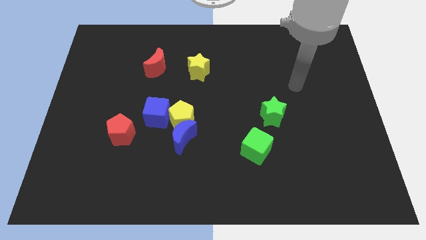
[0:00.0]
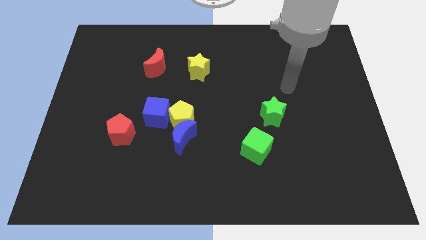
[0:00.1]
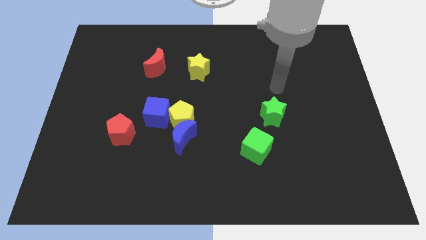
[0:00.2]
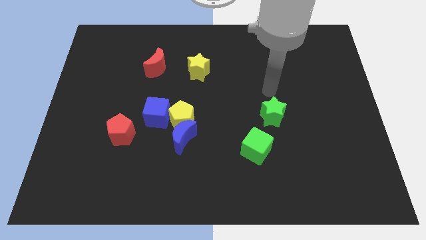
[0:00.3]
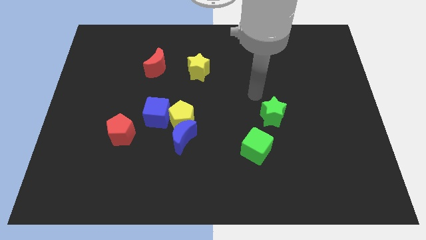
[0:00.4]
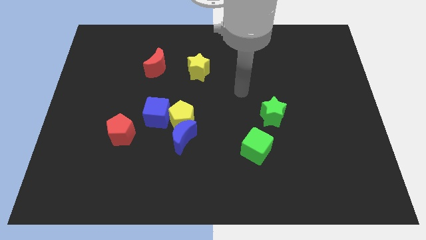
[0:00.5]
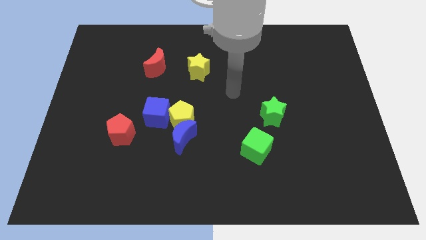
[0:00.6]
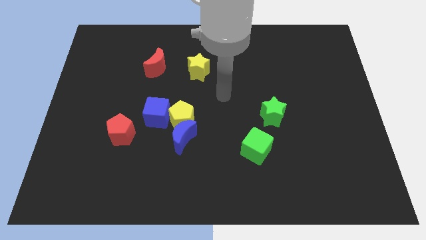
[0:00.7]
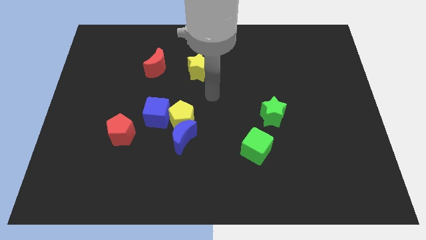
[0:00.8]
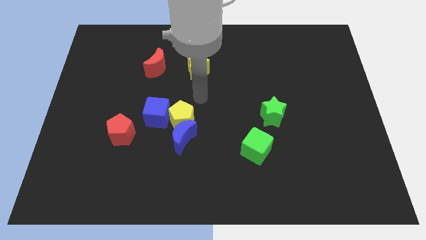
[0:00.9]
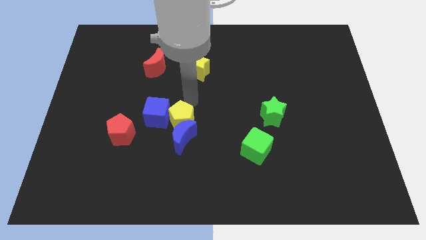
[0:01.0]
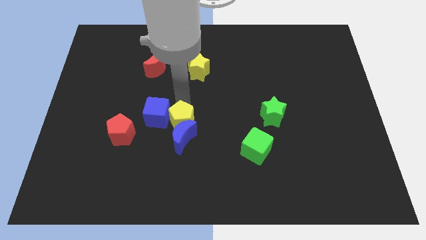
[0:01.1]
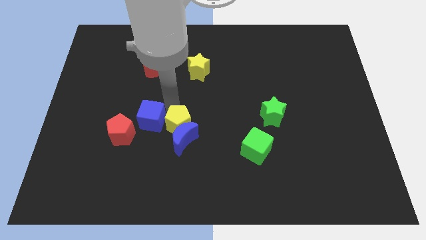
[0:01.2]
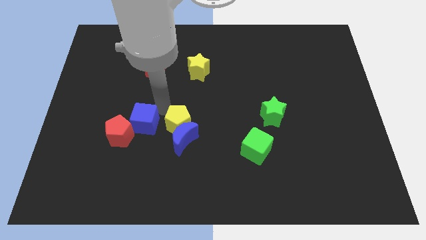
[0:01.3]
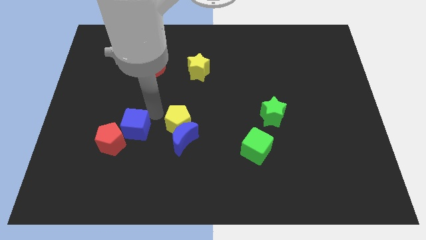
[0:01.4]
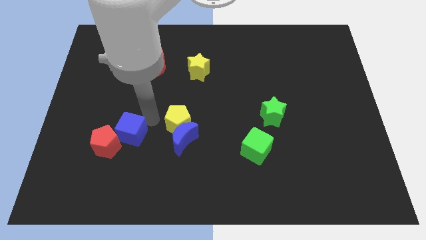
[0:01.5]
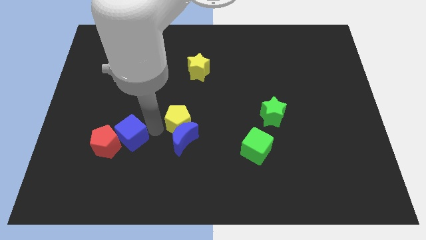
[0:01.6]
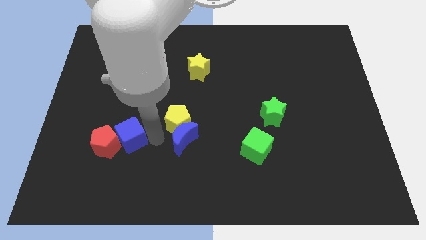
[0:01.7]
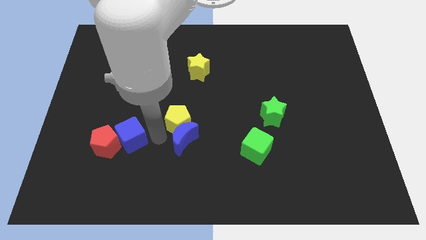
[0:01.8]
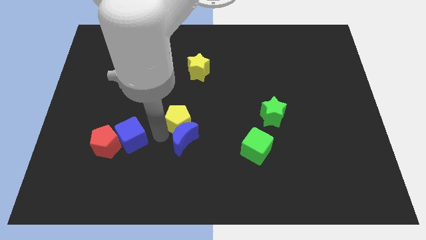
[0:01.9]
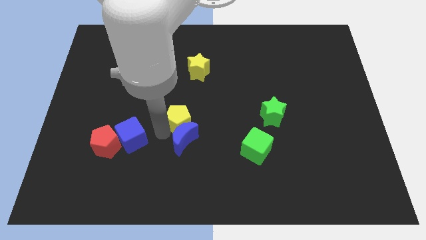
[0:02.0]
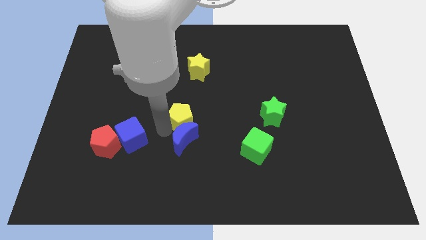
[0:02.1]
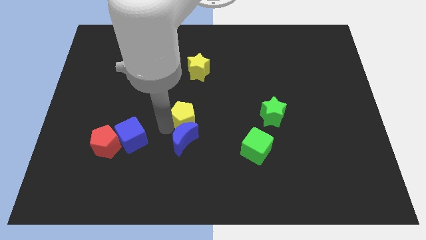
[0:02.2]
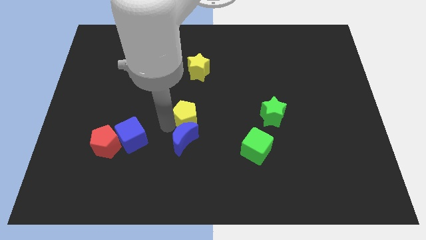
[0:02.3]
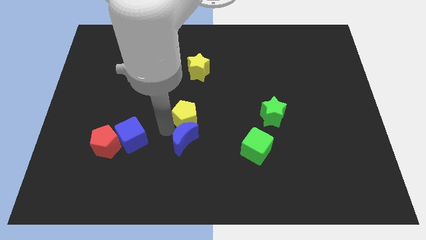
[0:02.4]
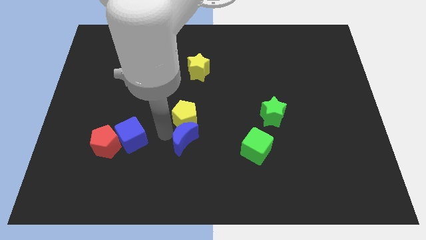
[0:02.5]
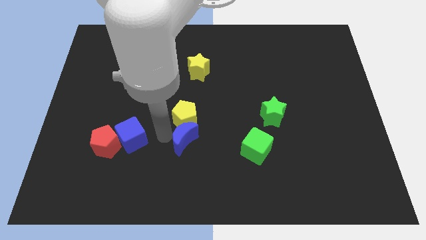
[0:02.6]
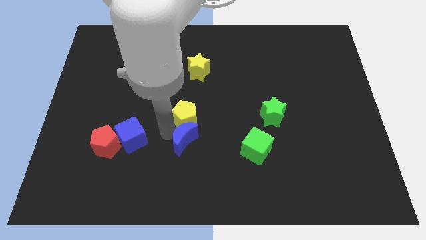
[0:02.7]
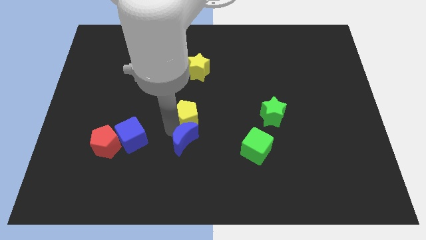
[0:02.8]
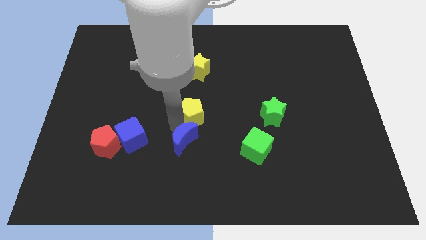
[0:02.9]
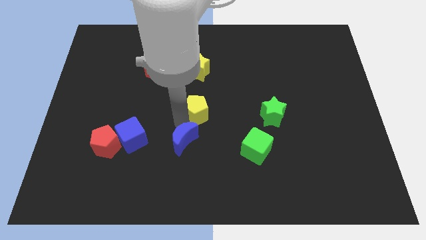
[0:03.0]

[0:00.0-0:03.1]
pull the yellow pentagon apart from the blue moon and blue cube

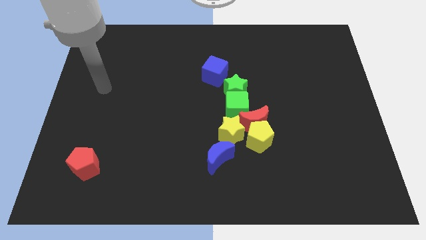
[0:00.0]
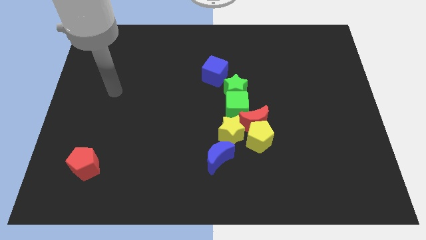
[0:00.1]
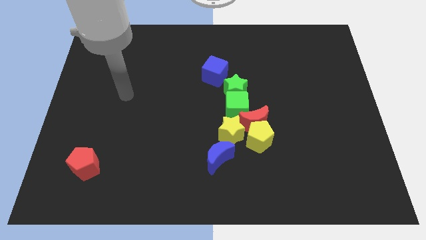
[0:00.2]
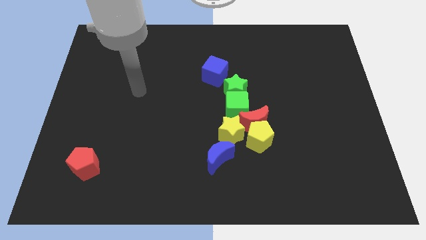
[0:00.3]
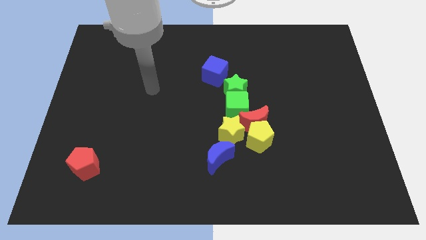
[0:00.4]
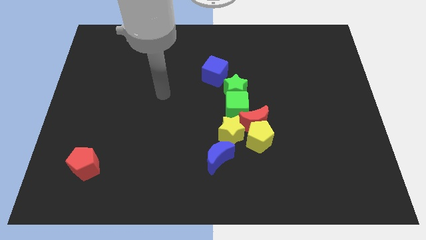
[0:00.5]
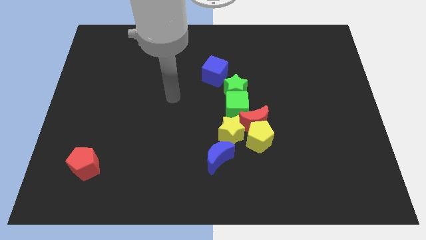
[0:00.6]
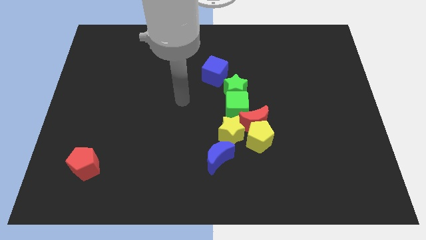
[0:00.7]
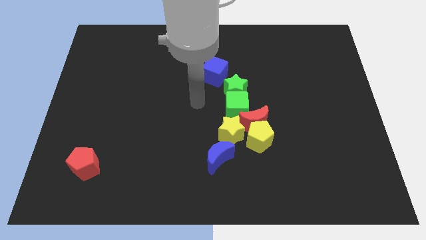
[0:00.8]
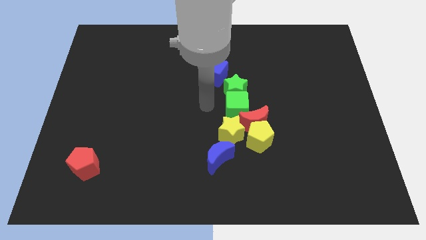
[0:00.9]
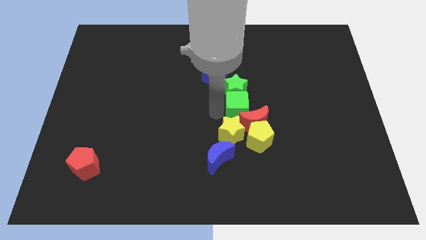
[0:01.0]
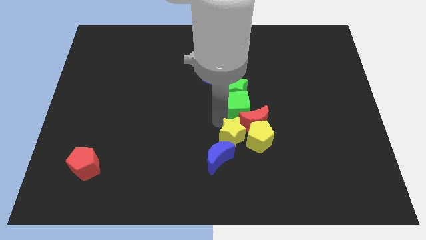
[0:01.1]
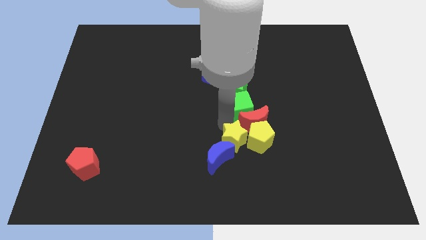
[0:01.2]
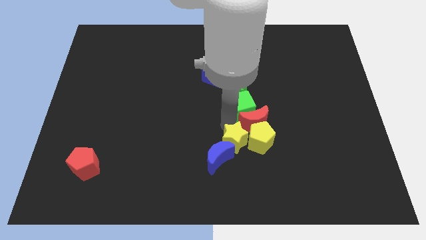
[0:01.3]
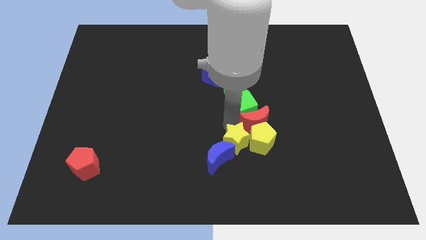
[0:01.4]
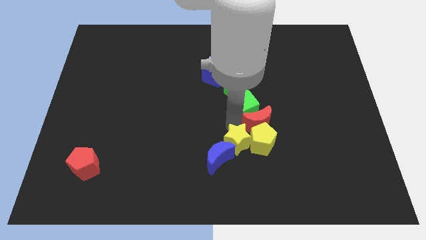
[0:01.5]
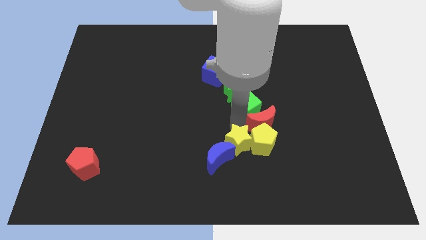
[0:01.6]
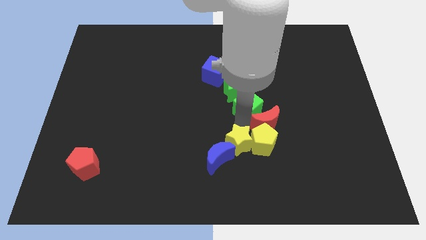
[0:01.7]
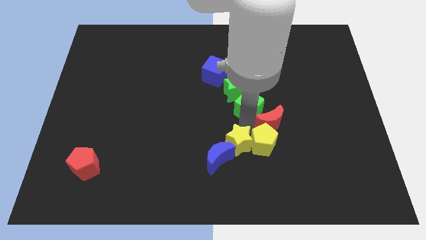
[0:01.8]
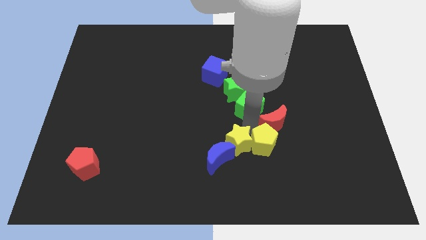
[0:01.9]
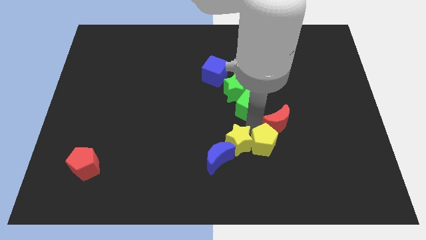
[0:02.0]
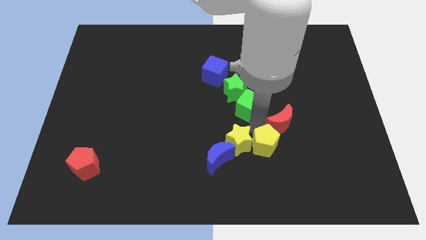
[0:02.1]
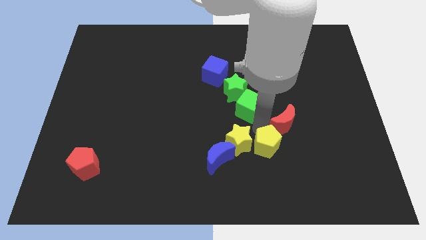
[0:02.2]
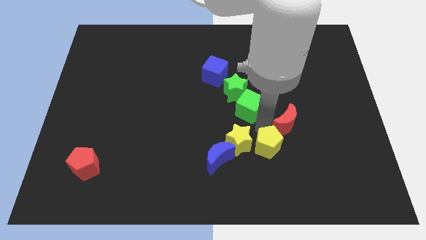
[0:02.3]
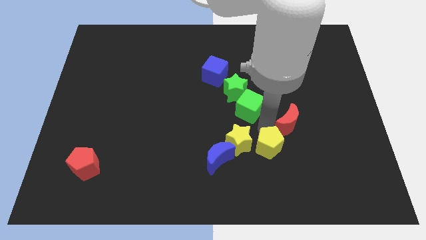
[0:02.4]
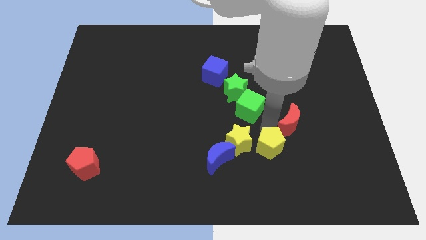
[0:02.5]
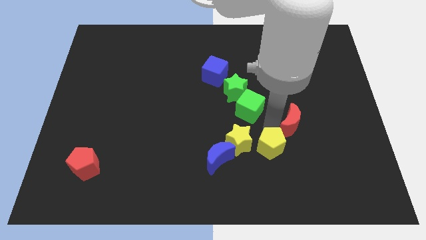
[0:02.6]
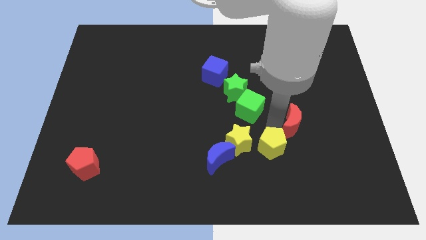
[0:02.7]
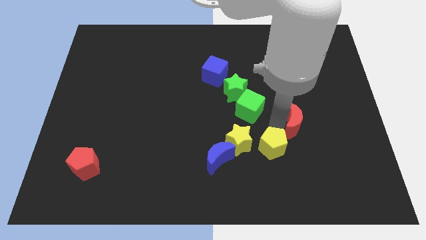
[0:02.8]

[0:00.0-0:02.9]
move the red moon away from the clump

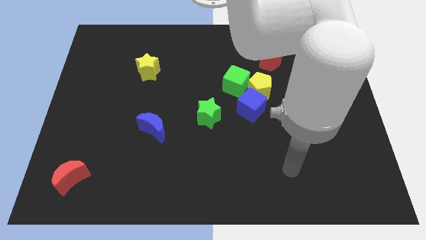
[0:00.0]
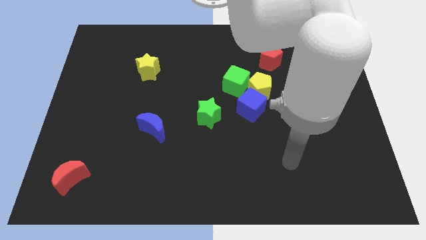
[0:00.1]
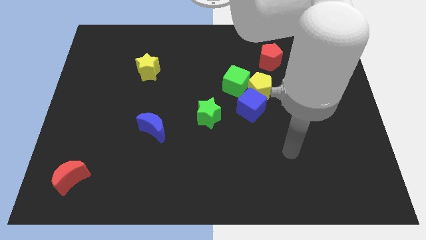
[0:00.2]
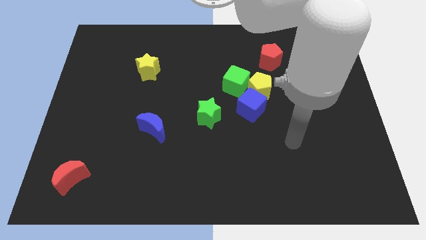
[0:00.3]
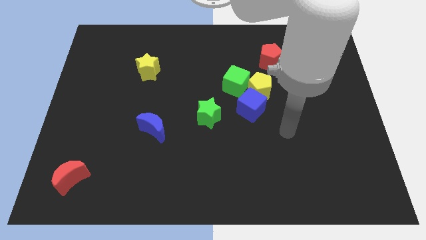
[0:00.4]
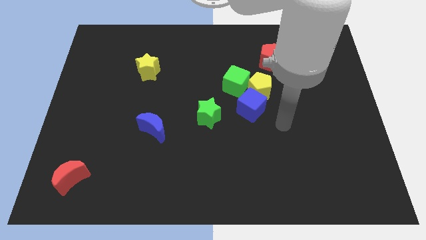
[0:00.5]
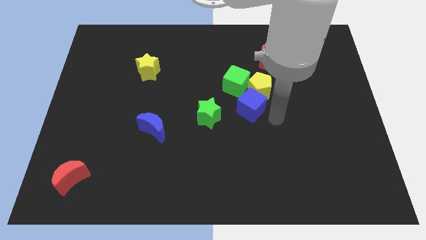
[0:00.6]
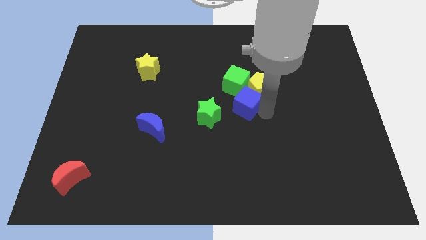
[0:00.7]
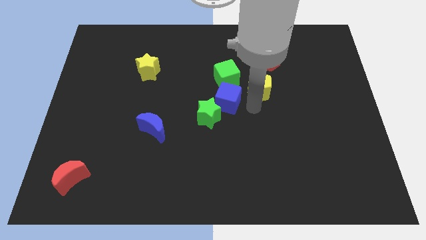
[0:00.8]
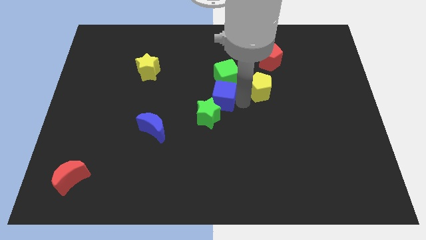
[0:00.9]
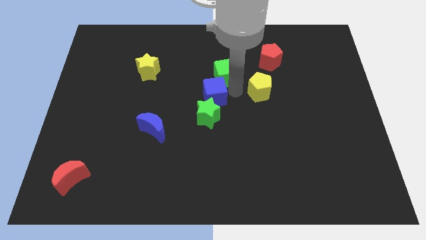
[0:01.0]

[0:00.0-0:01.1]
move the yellow pentagon away from the blue cube and green cube

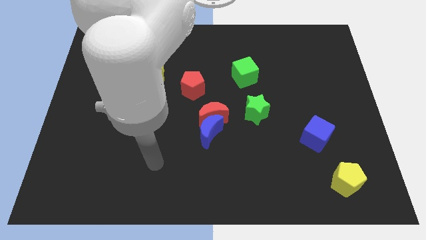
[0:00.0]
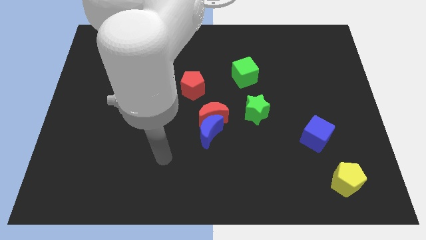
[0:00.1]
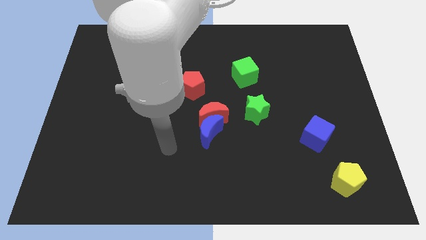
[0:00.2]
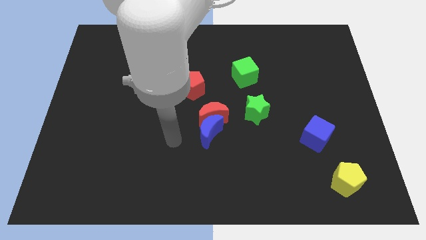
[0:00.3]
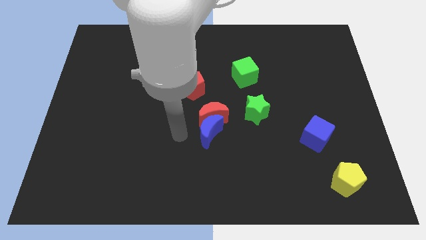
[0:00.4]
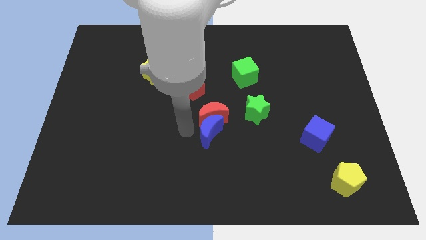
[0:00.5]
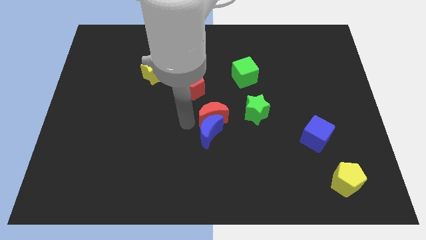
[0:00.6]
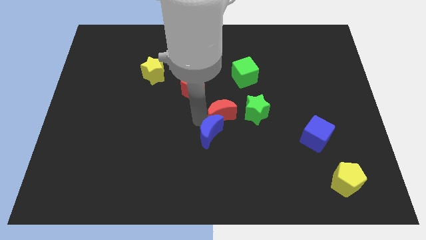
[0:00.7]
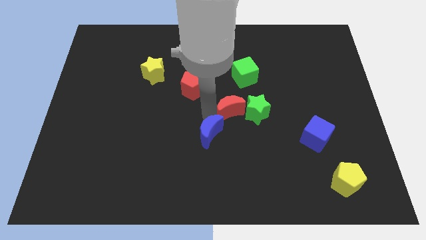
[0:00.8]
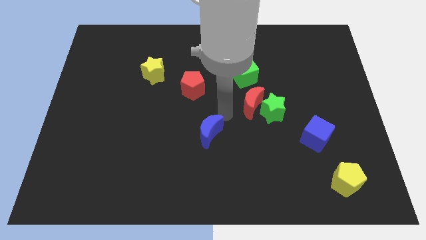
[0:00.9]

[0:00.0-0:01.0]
separate the blue moon from the red moon

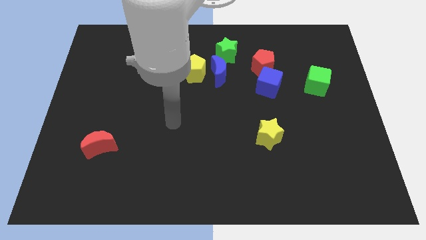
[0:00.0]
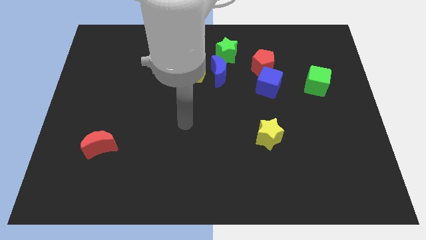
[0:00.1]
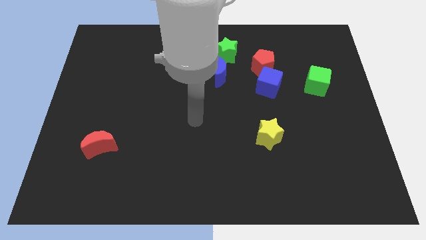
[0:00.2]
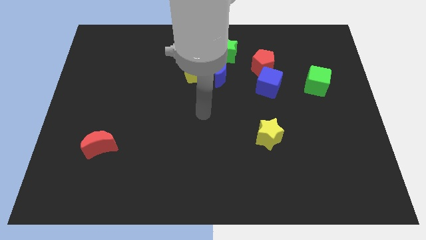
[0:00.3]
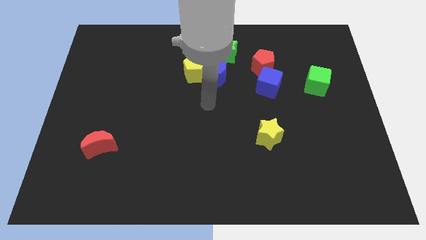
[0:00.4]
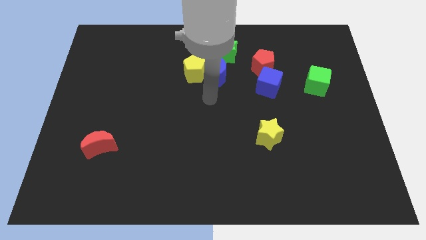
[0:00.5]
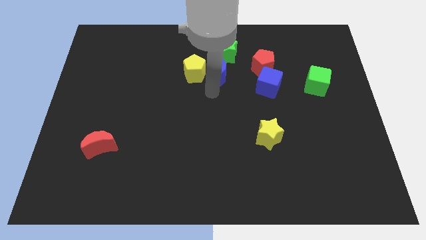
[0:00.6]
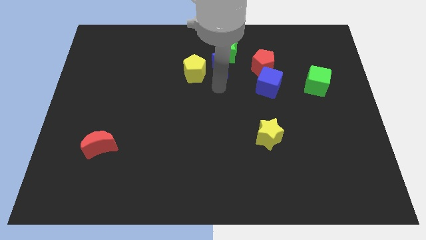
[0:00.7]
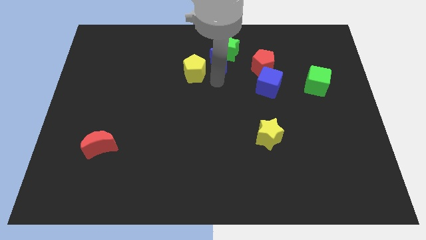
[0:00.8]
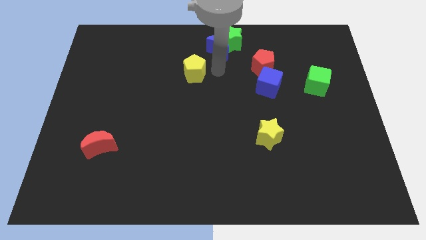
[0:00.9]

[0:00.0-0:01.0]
separate the yellow pentagon from the blue moon

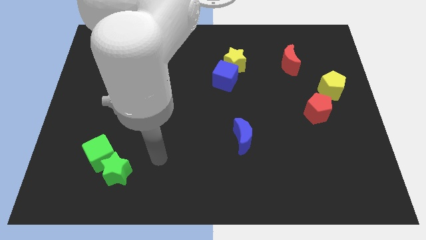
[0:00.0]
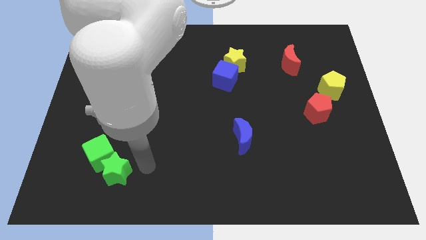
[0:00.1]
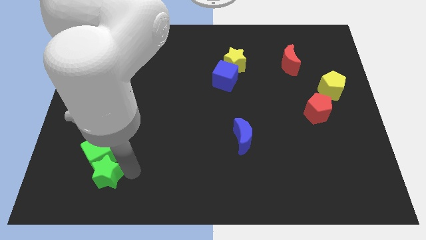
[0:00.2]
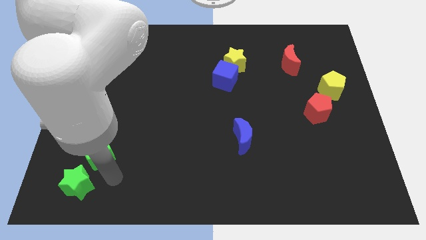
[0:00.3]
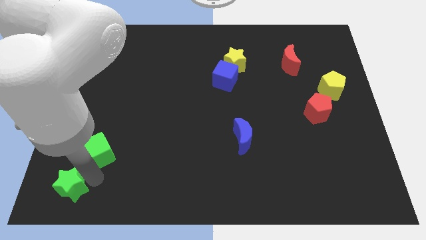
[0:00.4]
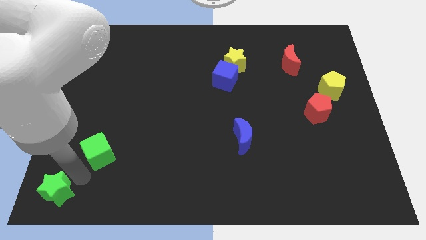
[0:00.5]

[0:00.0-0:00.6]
move the green cube away from the green star
